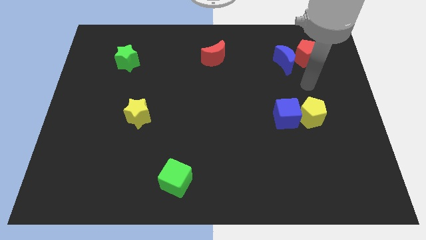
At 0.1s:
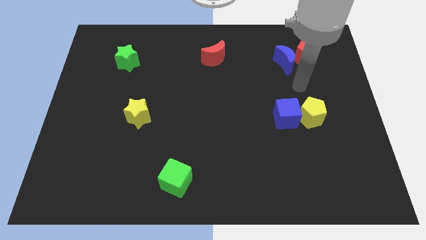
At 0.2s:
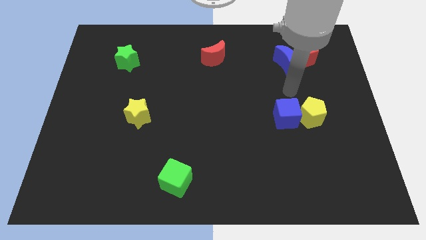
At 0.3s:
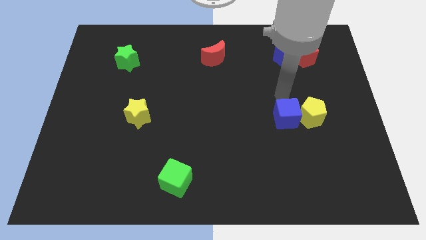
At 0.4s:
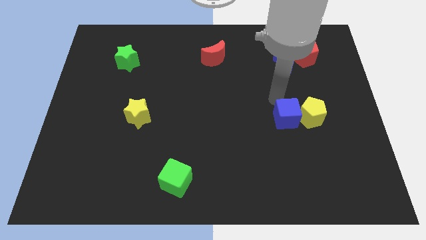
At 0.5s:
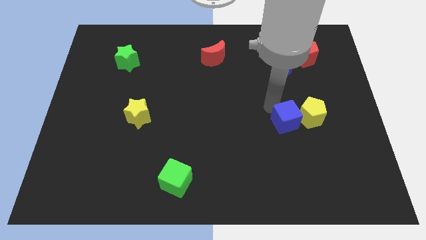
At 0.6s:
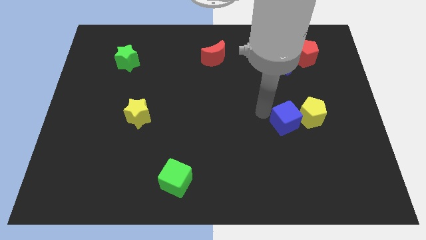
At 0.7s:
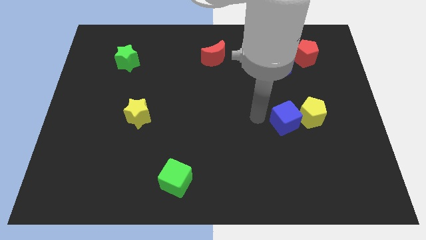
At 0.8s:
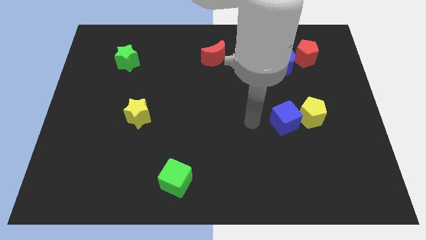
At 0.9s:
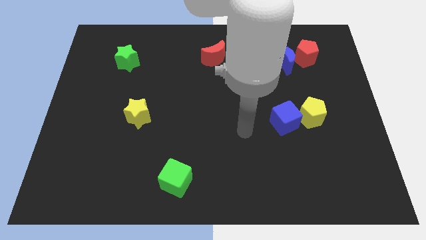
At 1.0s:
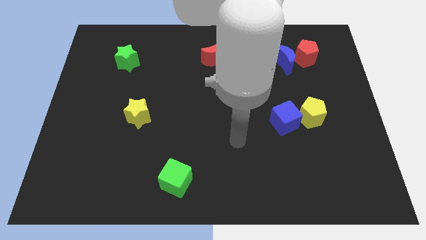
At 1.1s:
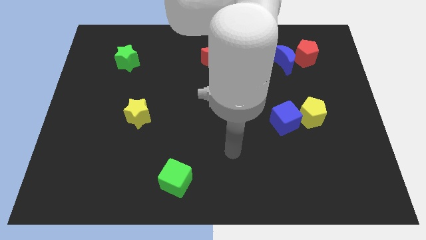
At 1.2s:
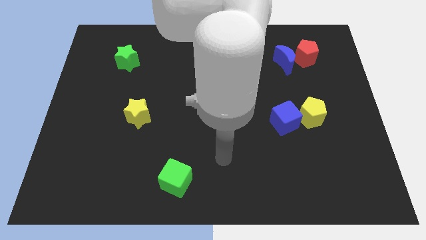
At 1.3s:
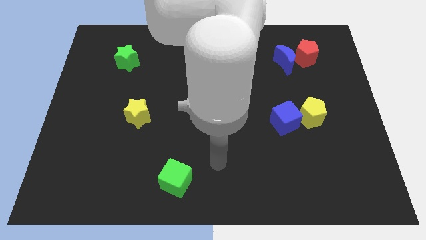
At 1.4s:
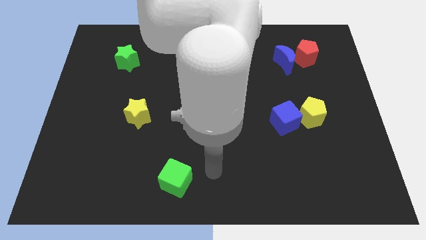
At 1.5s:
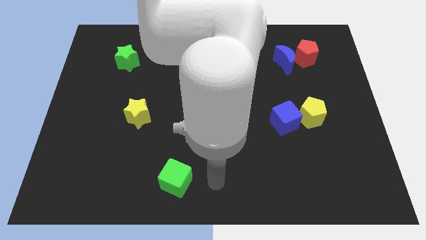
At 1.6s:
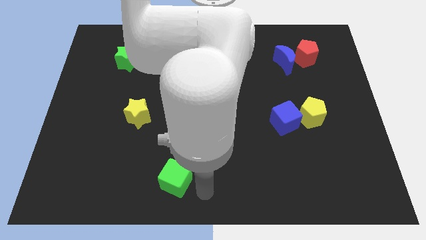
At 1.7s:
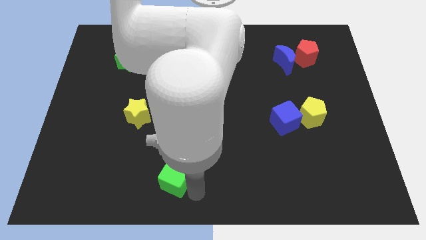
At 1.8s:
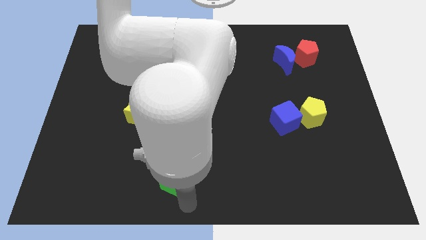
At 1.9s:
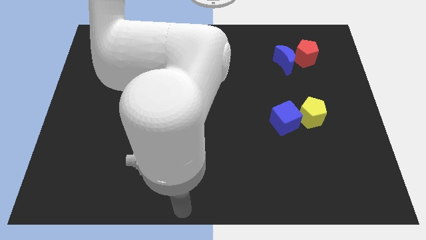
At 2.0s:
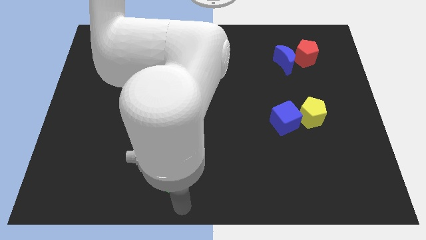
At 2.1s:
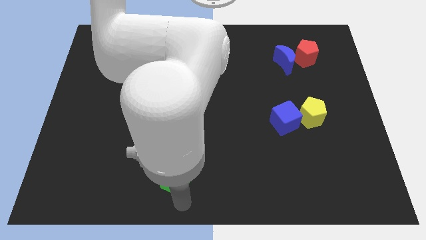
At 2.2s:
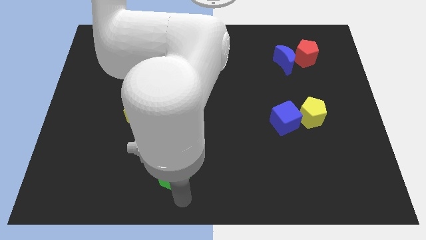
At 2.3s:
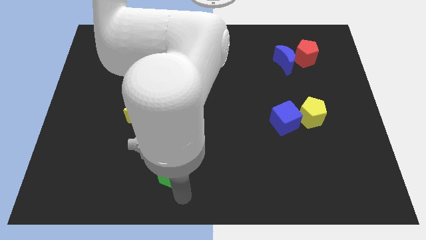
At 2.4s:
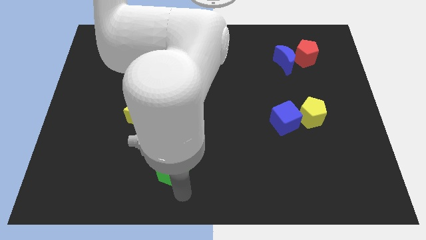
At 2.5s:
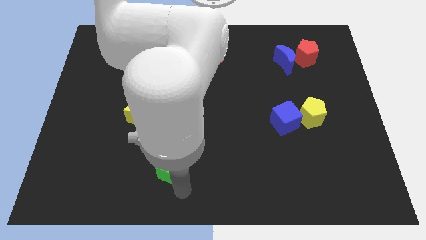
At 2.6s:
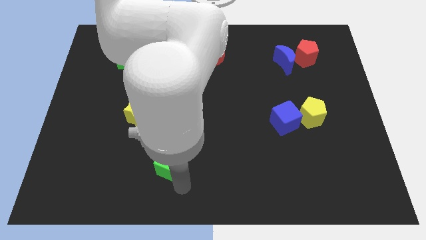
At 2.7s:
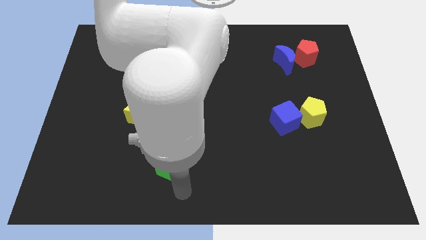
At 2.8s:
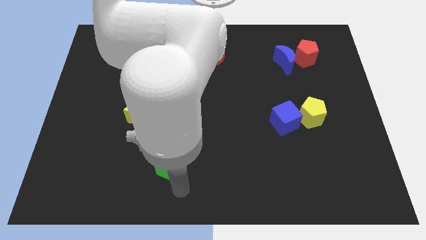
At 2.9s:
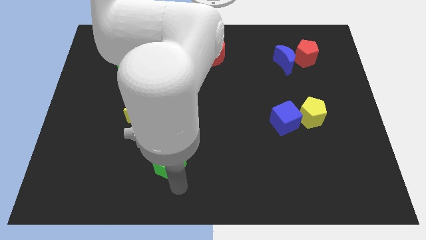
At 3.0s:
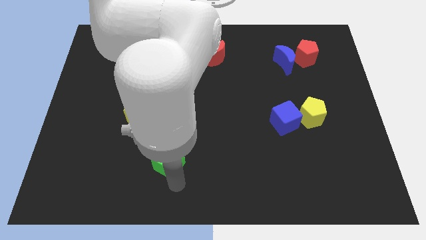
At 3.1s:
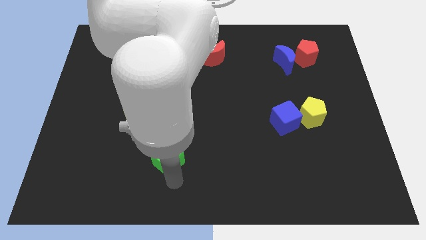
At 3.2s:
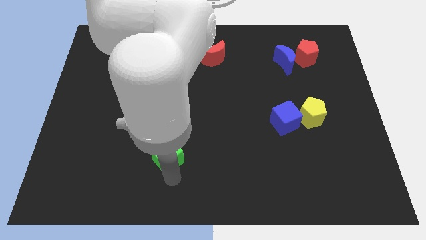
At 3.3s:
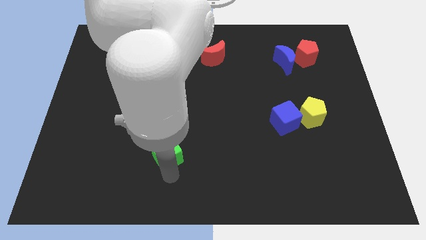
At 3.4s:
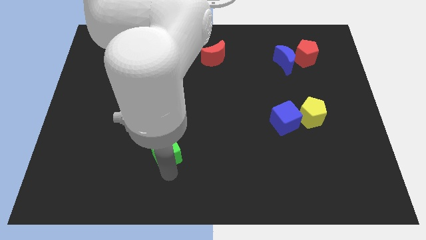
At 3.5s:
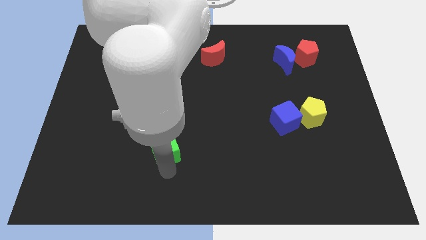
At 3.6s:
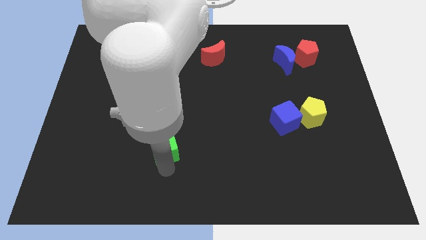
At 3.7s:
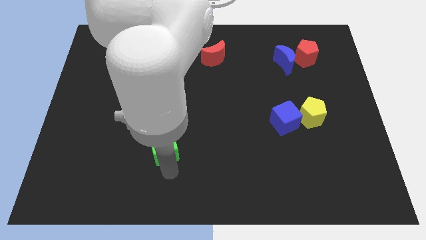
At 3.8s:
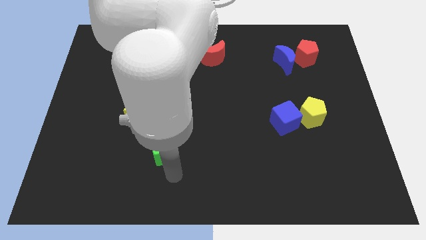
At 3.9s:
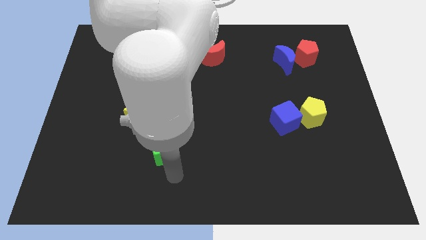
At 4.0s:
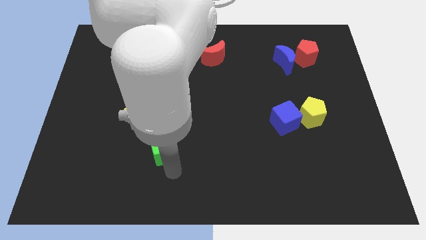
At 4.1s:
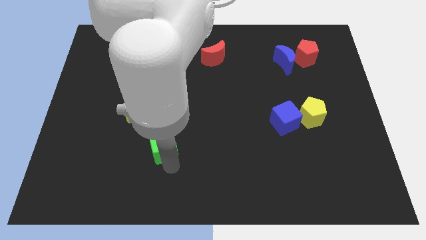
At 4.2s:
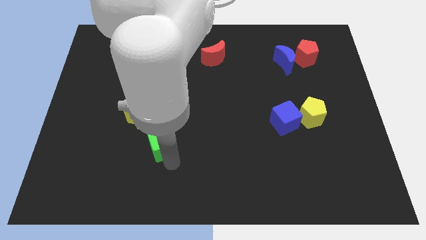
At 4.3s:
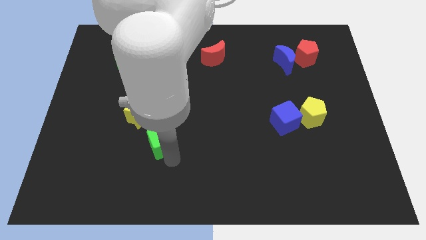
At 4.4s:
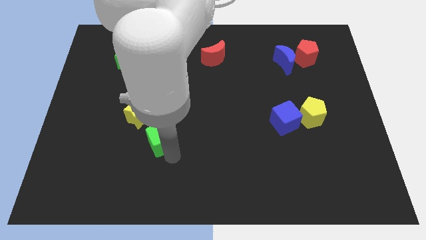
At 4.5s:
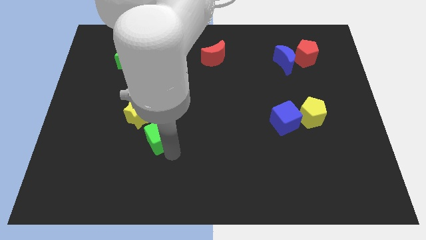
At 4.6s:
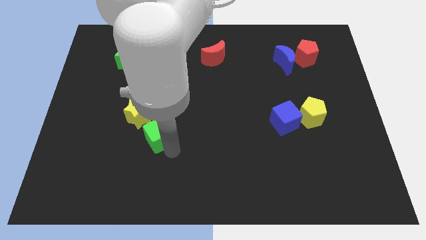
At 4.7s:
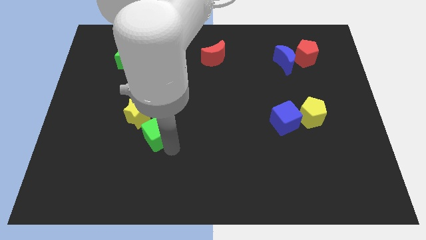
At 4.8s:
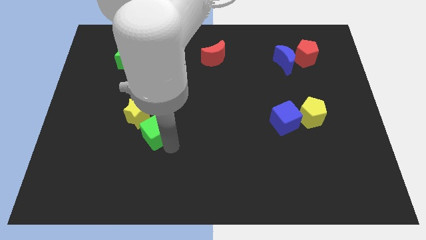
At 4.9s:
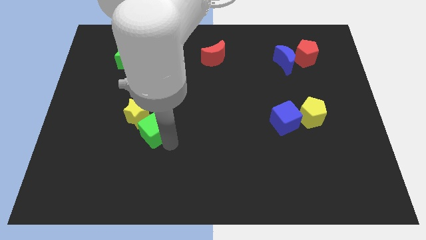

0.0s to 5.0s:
push the green cube close to the yellow star

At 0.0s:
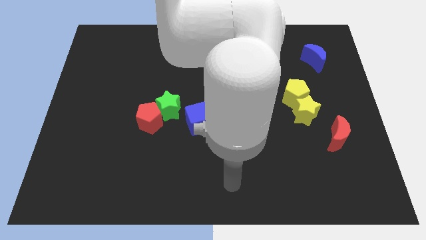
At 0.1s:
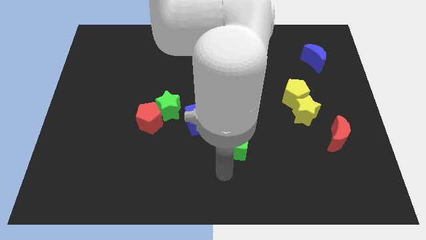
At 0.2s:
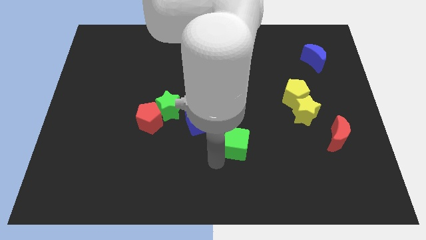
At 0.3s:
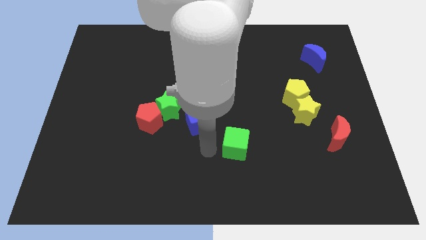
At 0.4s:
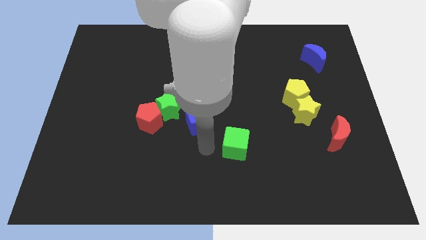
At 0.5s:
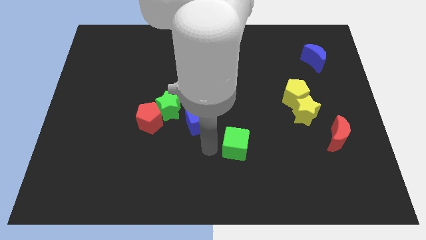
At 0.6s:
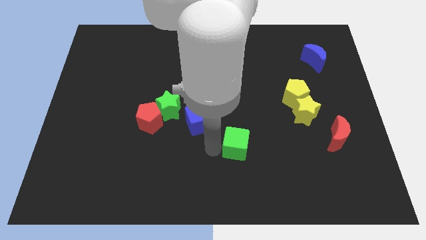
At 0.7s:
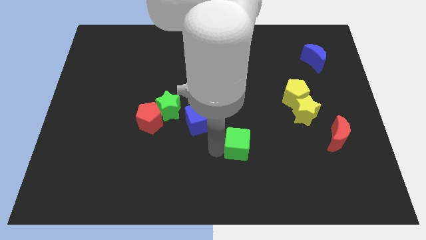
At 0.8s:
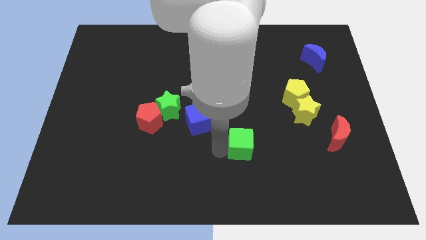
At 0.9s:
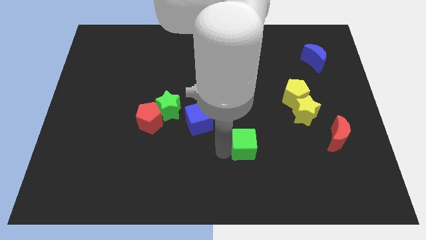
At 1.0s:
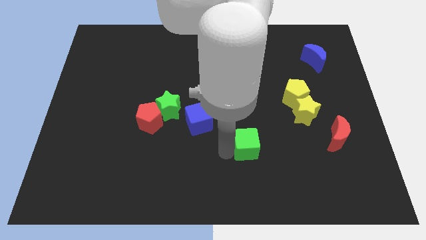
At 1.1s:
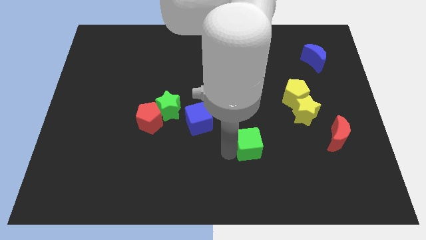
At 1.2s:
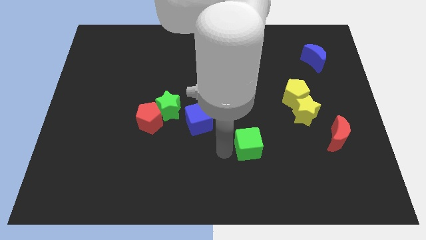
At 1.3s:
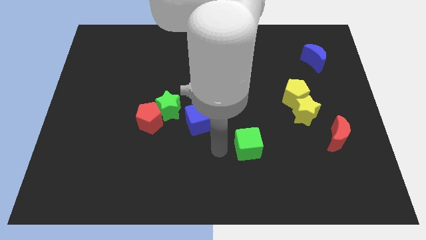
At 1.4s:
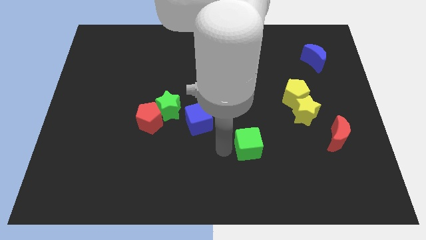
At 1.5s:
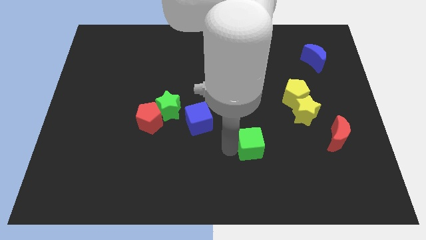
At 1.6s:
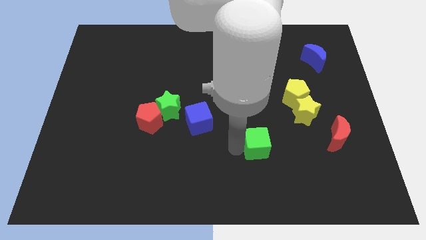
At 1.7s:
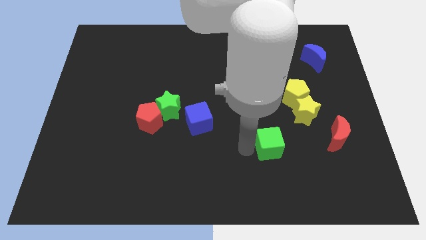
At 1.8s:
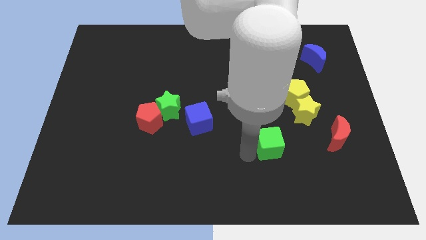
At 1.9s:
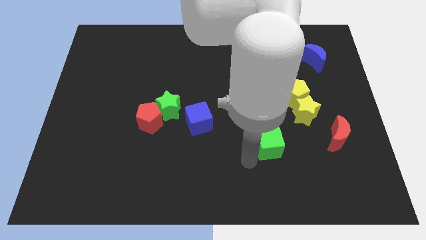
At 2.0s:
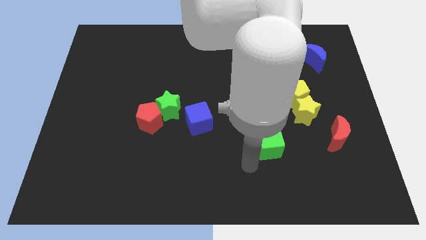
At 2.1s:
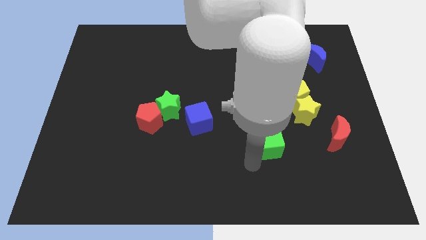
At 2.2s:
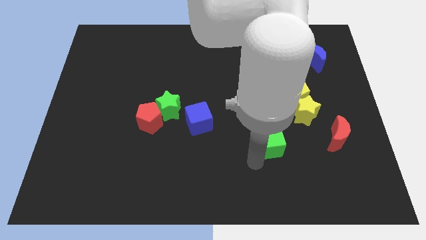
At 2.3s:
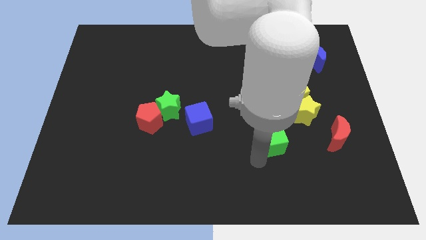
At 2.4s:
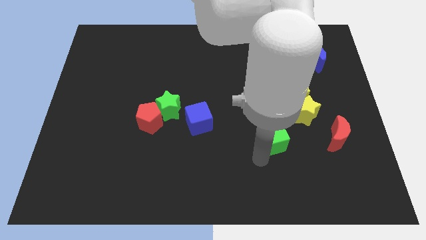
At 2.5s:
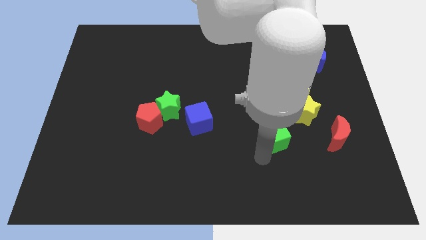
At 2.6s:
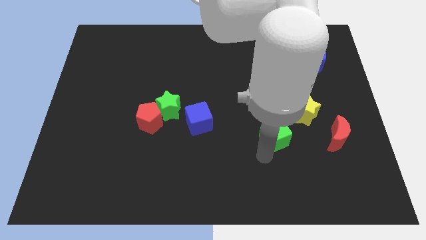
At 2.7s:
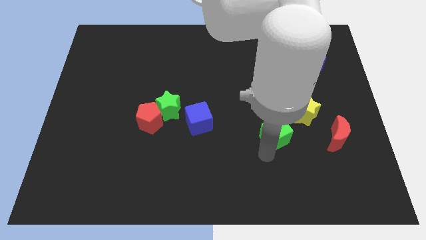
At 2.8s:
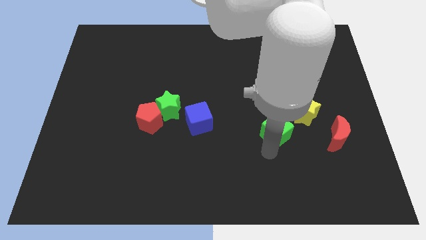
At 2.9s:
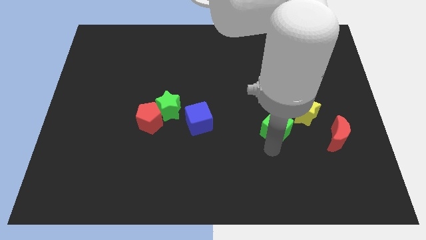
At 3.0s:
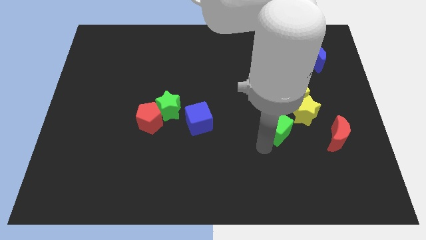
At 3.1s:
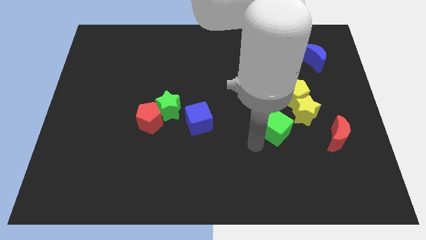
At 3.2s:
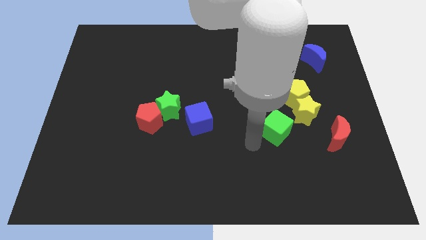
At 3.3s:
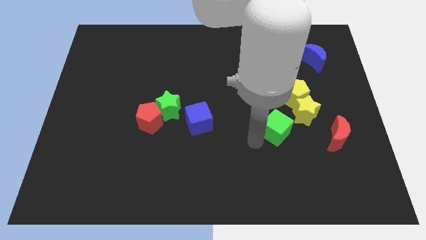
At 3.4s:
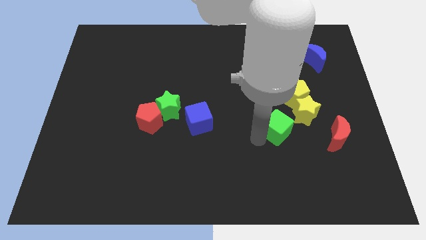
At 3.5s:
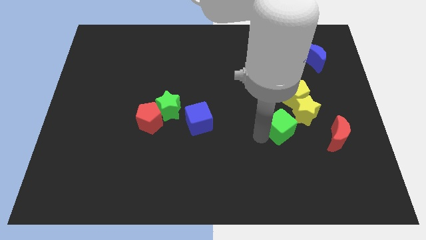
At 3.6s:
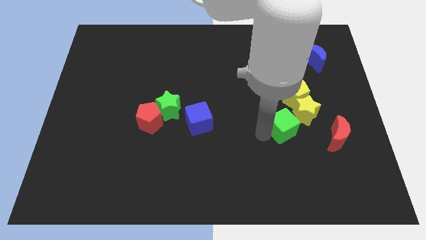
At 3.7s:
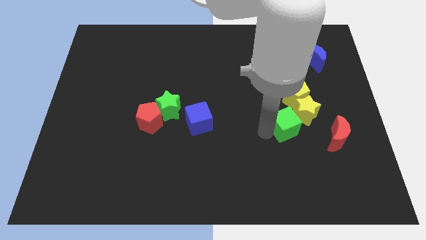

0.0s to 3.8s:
move the green cube towards the yellow star

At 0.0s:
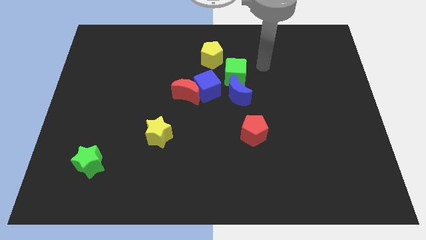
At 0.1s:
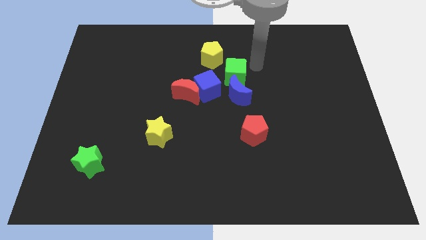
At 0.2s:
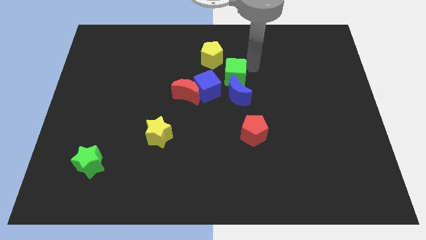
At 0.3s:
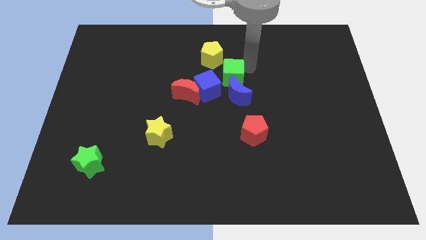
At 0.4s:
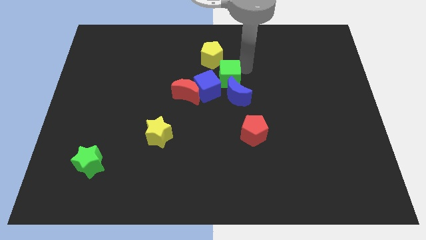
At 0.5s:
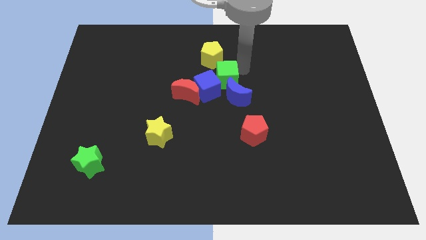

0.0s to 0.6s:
move the green cube towards the blue cube
